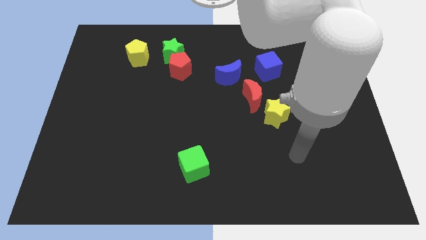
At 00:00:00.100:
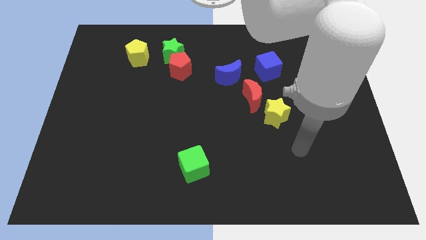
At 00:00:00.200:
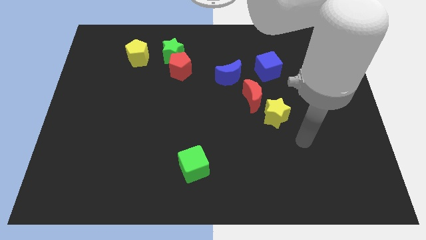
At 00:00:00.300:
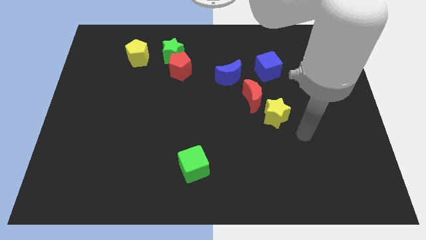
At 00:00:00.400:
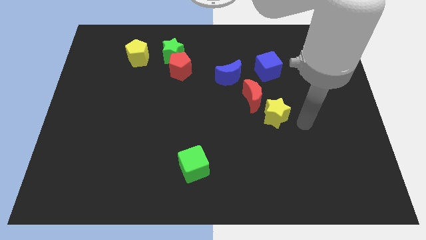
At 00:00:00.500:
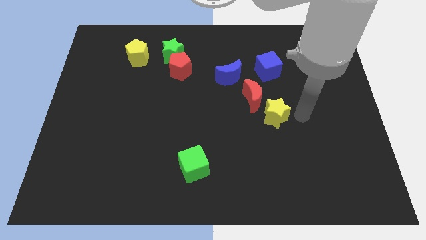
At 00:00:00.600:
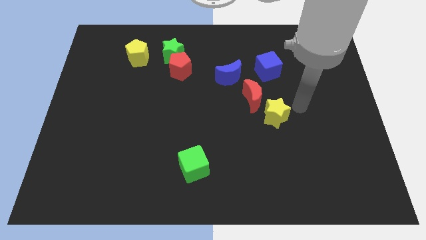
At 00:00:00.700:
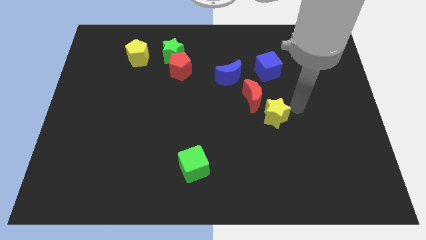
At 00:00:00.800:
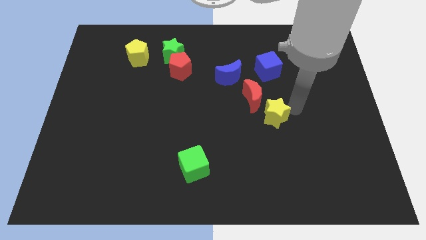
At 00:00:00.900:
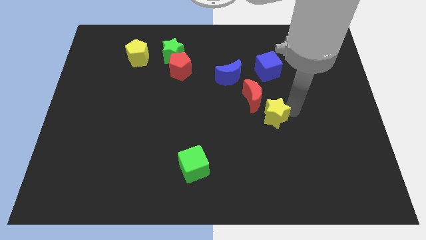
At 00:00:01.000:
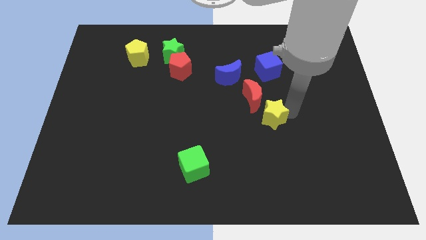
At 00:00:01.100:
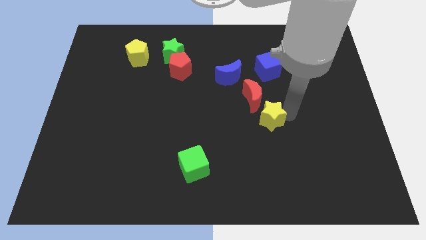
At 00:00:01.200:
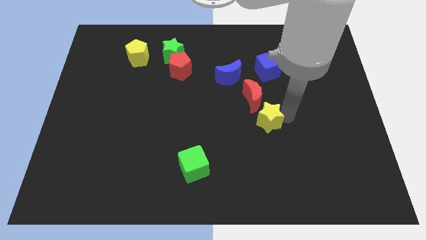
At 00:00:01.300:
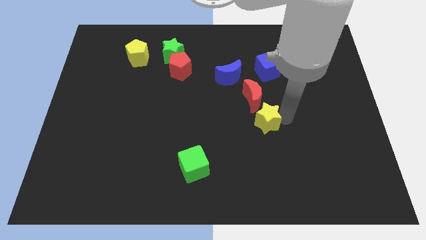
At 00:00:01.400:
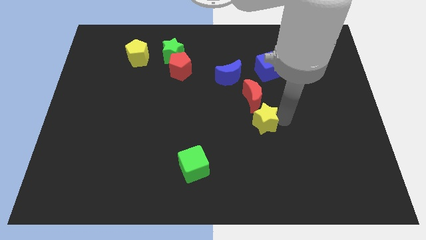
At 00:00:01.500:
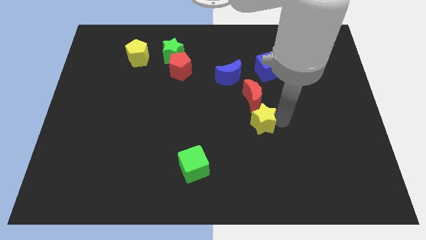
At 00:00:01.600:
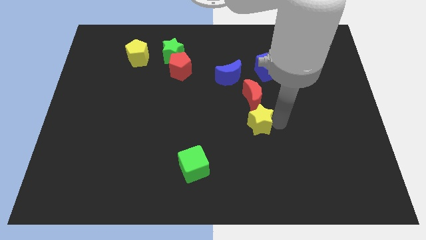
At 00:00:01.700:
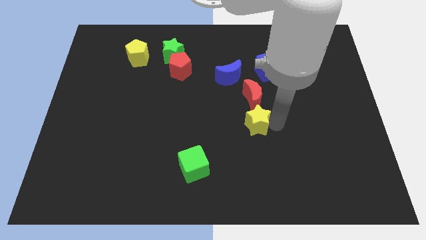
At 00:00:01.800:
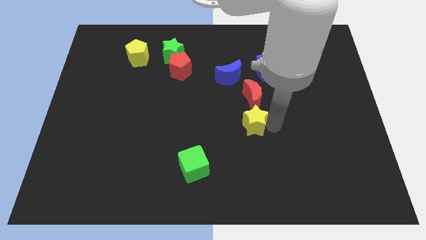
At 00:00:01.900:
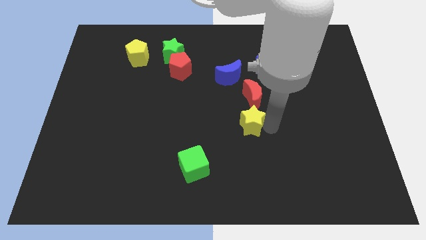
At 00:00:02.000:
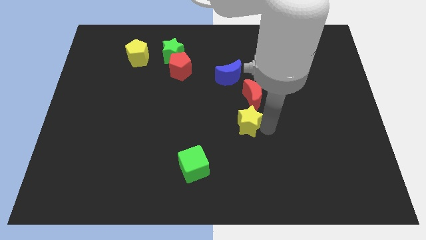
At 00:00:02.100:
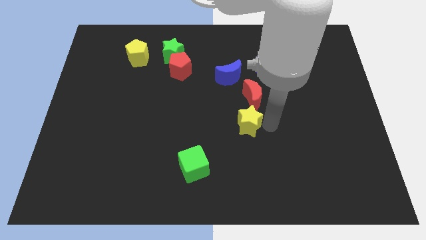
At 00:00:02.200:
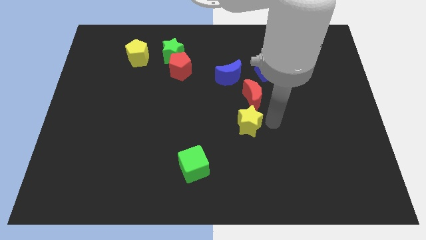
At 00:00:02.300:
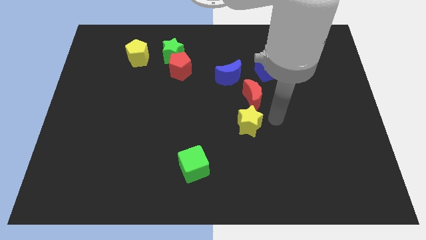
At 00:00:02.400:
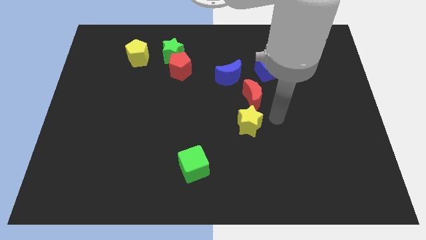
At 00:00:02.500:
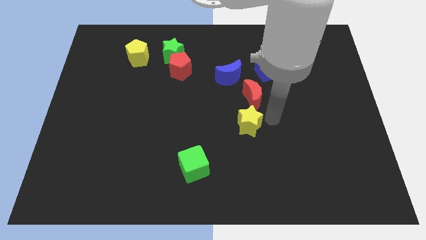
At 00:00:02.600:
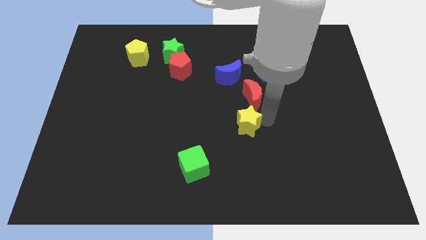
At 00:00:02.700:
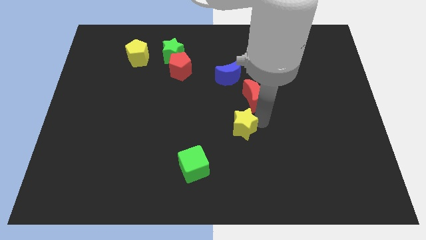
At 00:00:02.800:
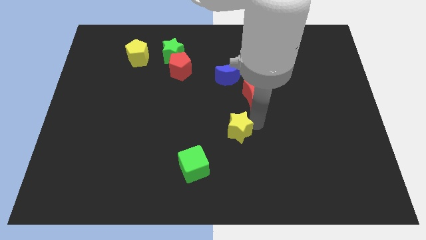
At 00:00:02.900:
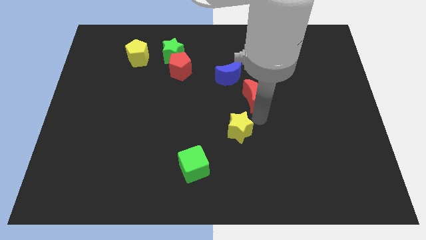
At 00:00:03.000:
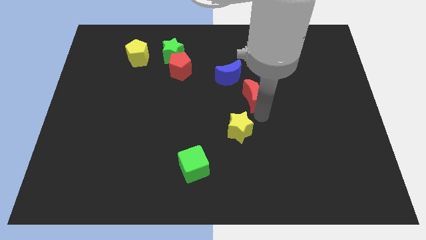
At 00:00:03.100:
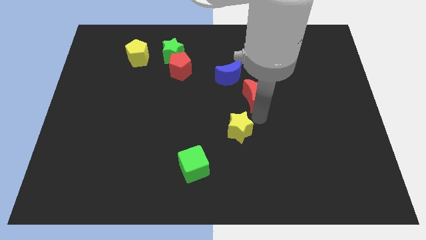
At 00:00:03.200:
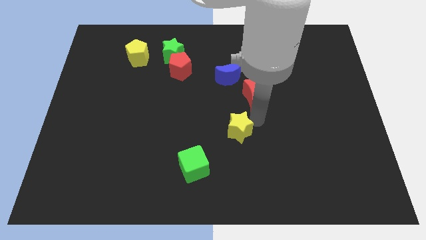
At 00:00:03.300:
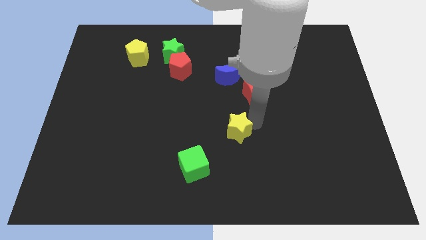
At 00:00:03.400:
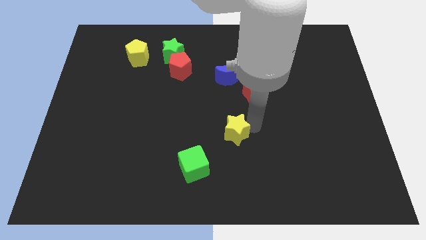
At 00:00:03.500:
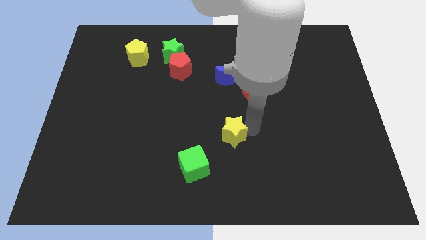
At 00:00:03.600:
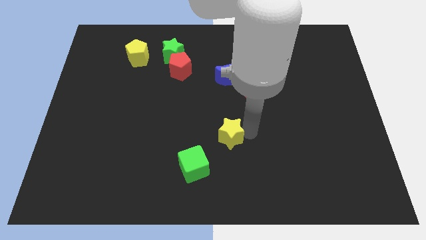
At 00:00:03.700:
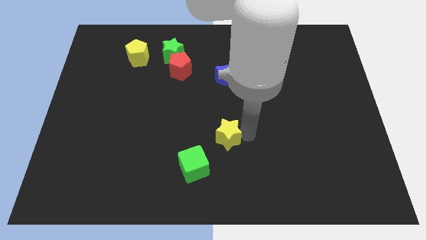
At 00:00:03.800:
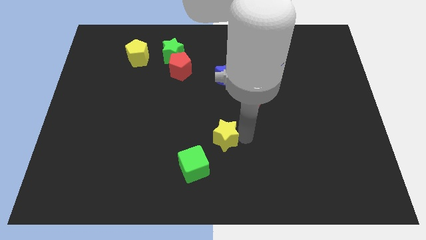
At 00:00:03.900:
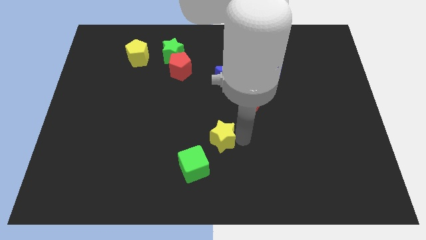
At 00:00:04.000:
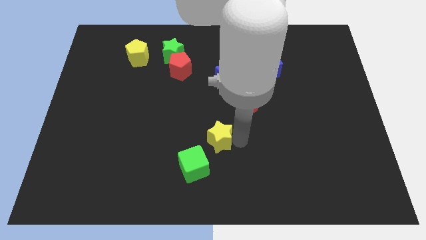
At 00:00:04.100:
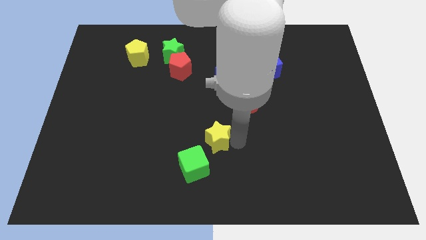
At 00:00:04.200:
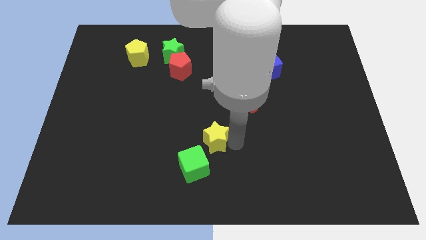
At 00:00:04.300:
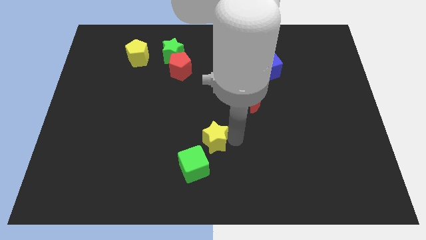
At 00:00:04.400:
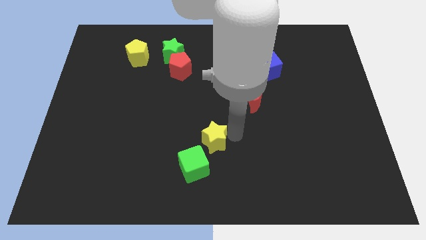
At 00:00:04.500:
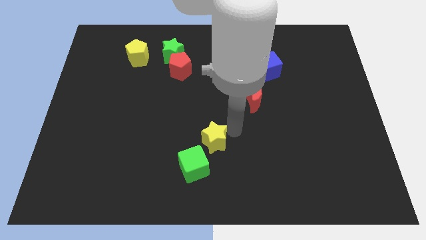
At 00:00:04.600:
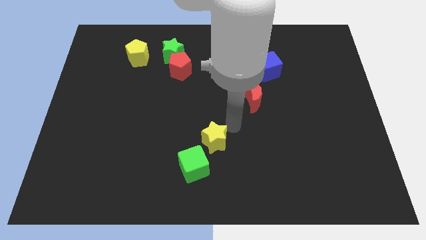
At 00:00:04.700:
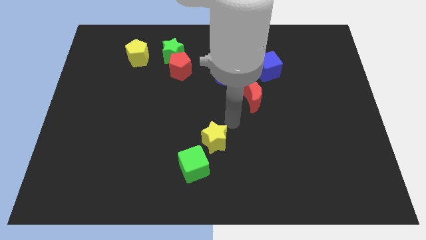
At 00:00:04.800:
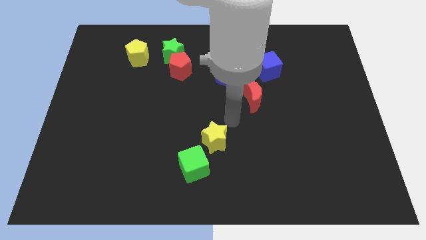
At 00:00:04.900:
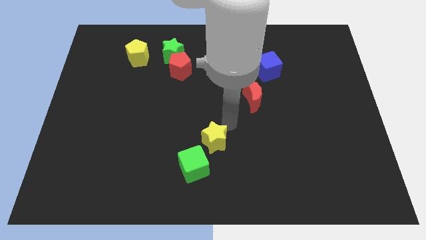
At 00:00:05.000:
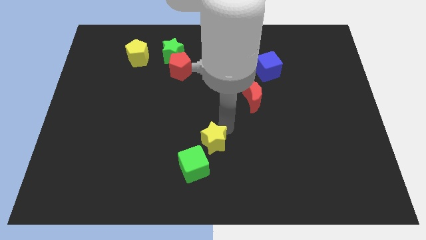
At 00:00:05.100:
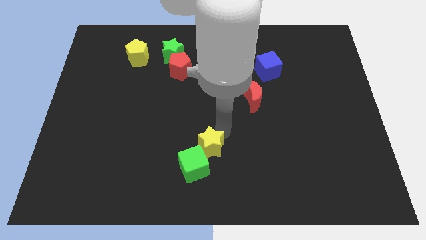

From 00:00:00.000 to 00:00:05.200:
push the yellow star to the green cube

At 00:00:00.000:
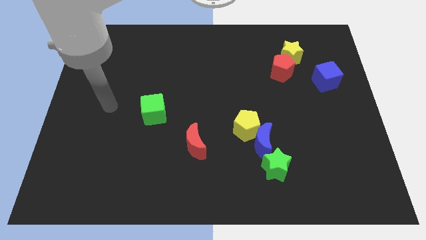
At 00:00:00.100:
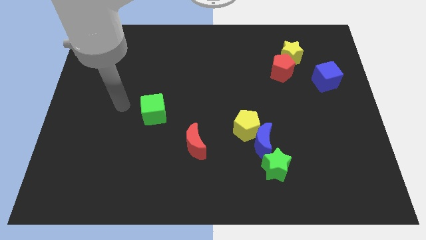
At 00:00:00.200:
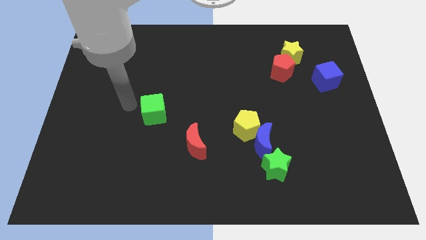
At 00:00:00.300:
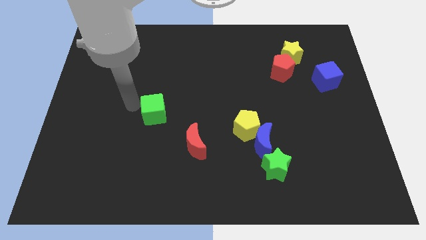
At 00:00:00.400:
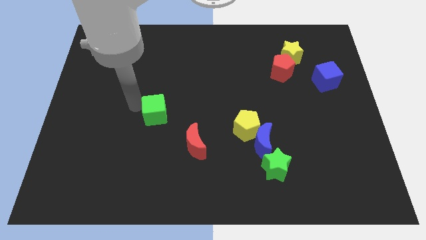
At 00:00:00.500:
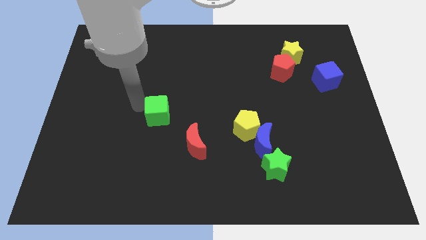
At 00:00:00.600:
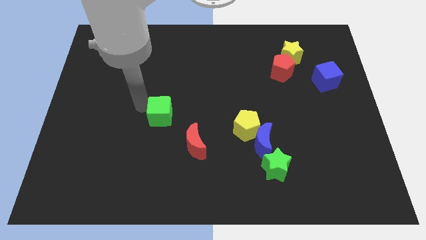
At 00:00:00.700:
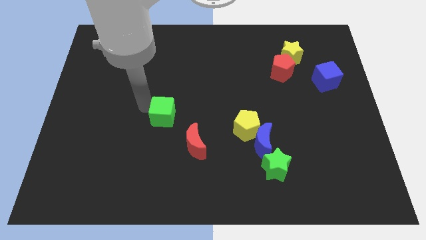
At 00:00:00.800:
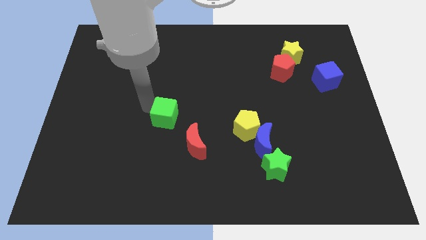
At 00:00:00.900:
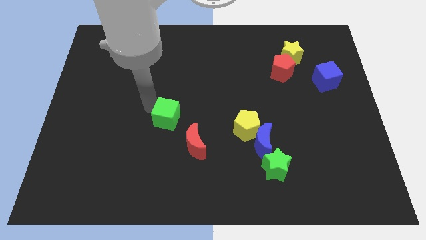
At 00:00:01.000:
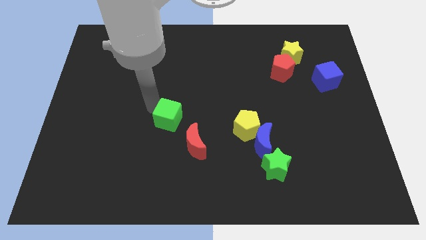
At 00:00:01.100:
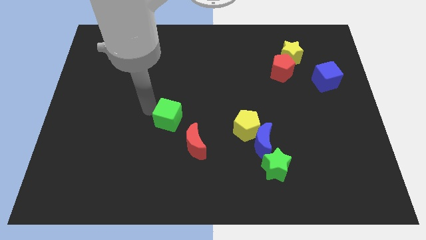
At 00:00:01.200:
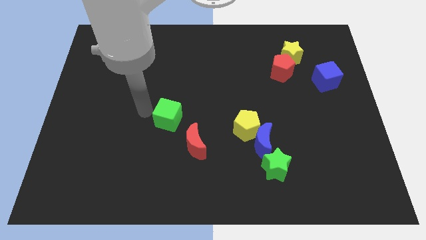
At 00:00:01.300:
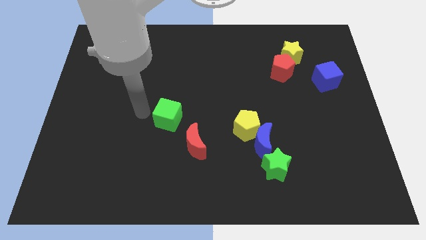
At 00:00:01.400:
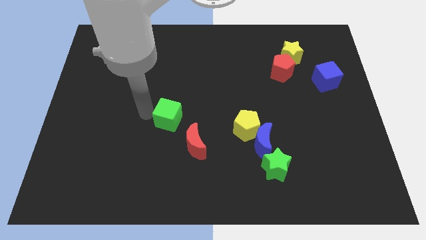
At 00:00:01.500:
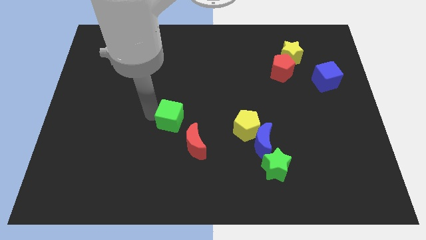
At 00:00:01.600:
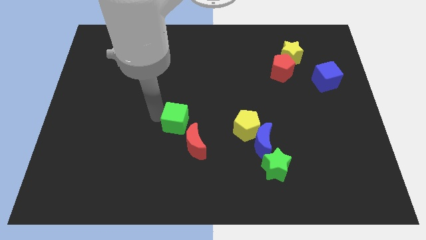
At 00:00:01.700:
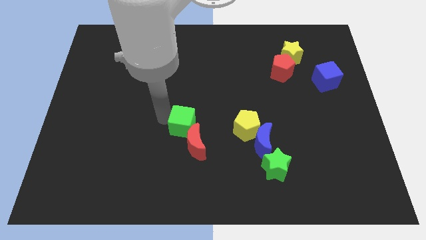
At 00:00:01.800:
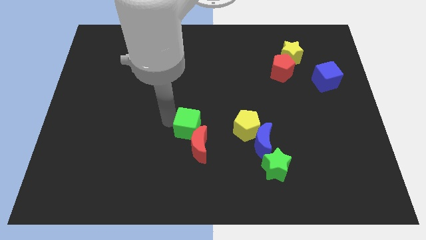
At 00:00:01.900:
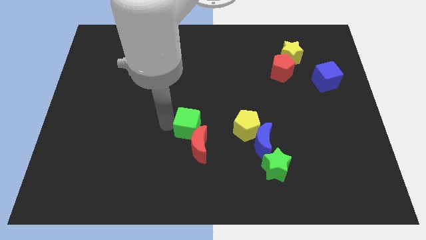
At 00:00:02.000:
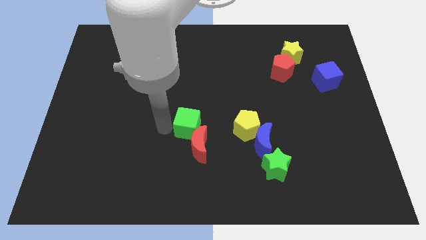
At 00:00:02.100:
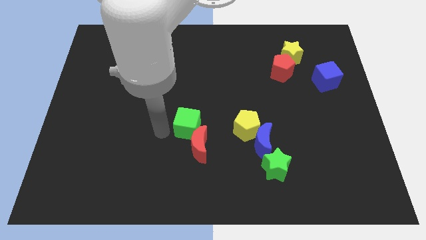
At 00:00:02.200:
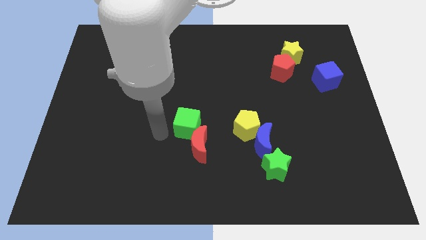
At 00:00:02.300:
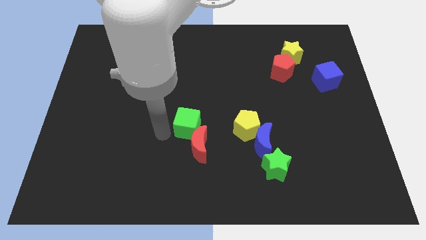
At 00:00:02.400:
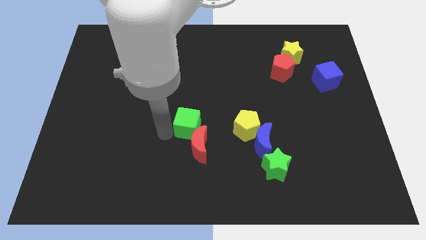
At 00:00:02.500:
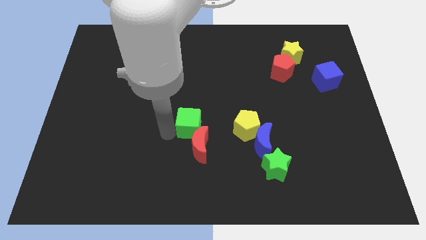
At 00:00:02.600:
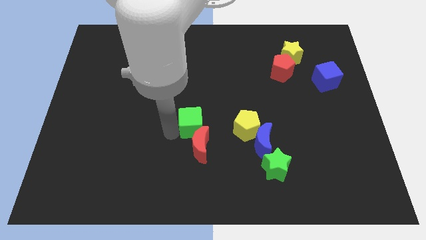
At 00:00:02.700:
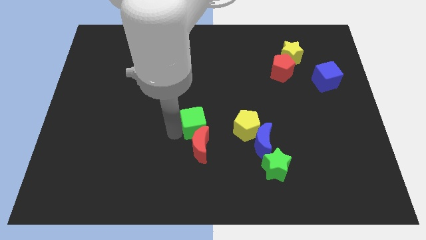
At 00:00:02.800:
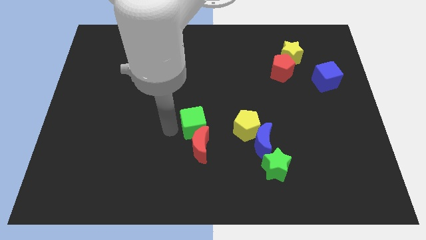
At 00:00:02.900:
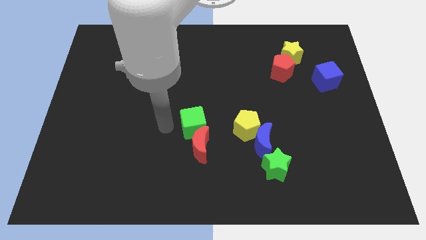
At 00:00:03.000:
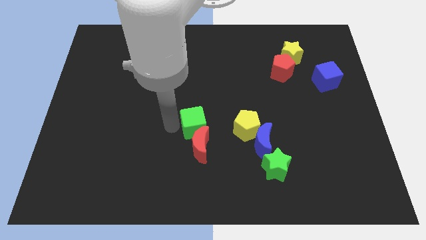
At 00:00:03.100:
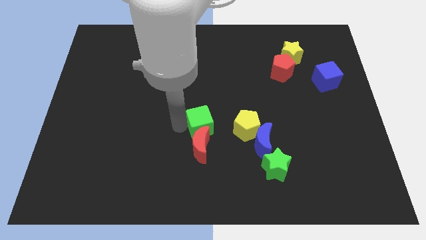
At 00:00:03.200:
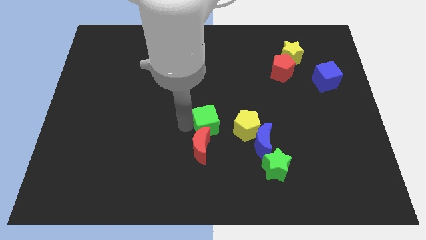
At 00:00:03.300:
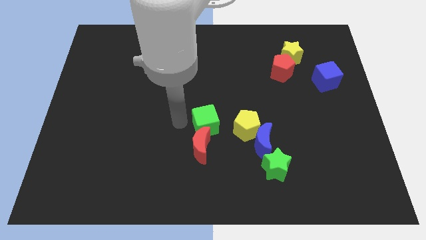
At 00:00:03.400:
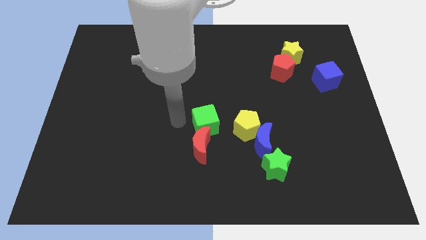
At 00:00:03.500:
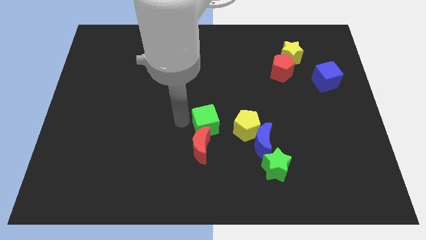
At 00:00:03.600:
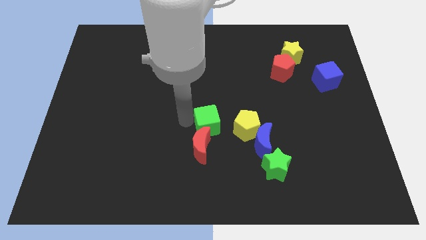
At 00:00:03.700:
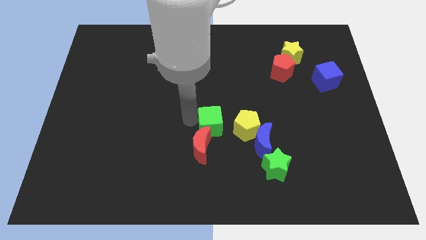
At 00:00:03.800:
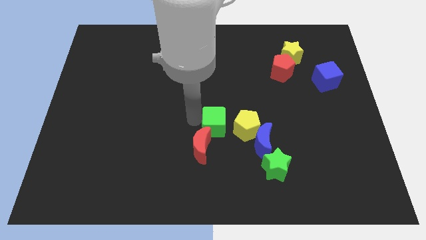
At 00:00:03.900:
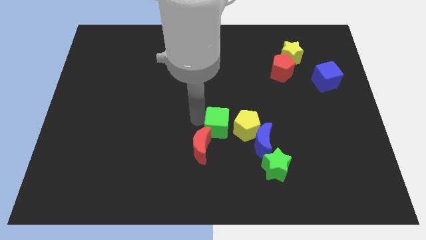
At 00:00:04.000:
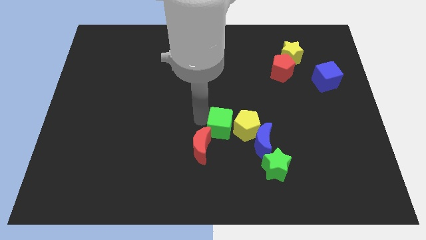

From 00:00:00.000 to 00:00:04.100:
slide the green cube to the yellow pentagon
